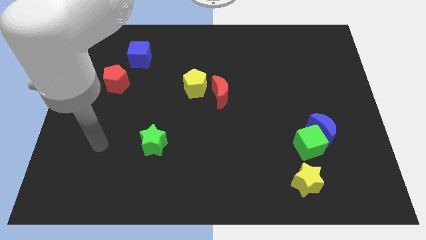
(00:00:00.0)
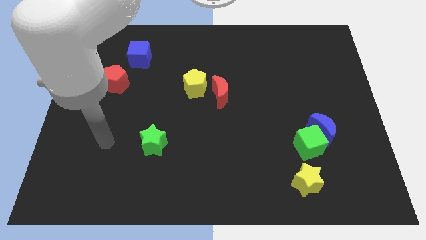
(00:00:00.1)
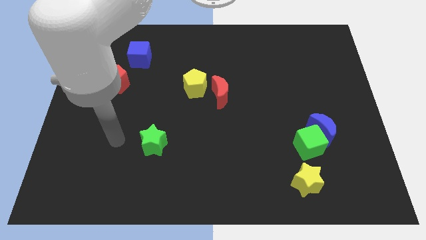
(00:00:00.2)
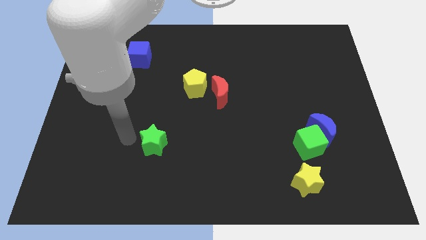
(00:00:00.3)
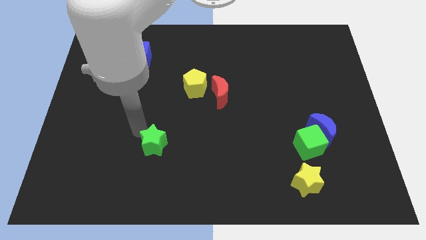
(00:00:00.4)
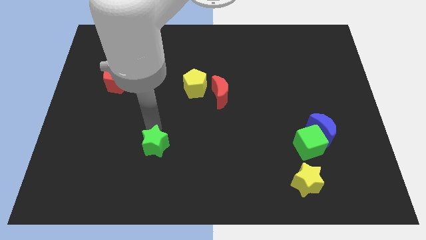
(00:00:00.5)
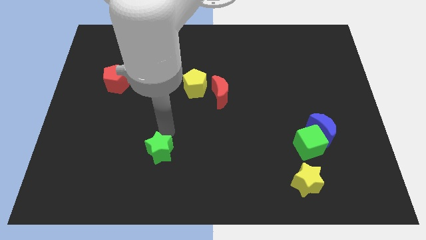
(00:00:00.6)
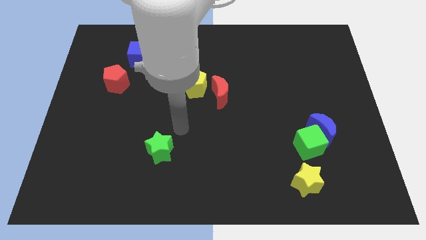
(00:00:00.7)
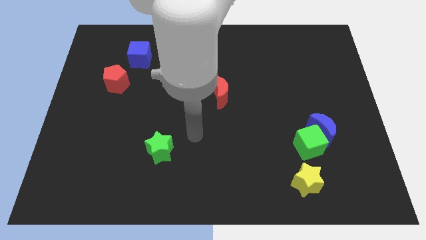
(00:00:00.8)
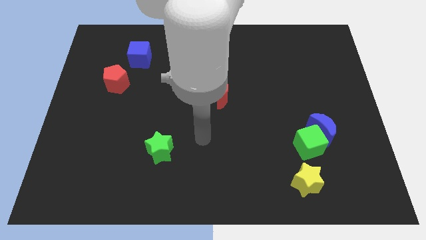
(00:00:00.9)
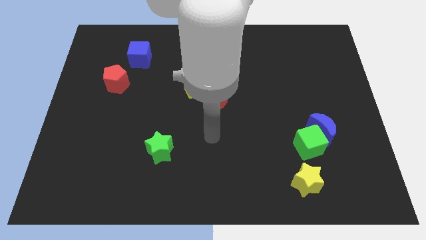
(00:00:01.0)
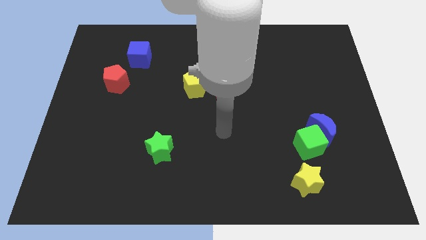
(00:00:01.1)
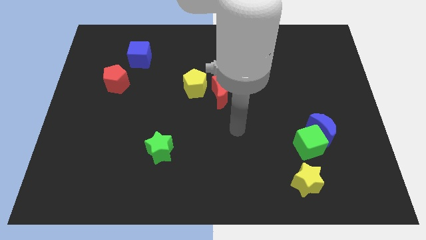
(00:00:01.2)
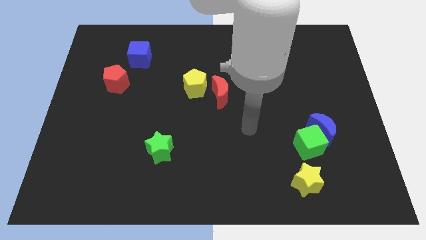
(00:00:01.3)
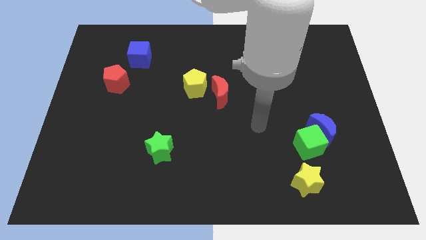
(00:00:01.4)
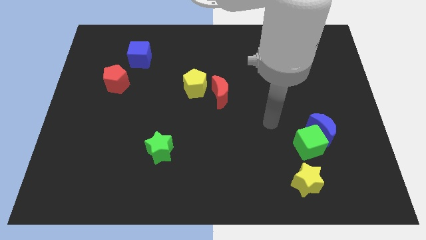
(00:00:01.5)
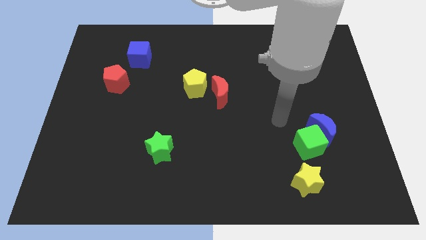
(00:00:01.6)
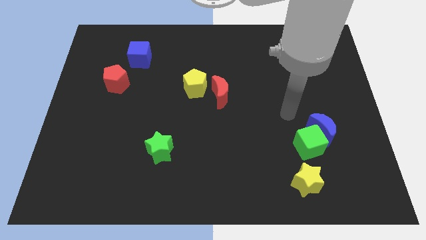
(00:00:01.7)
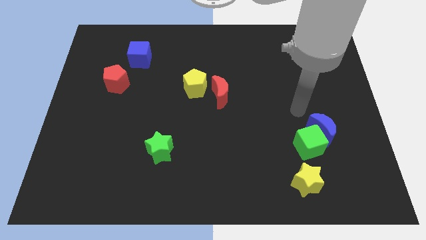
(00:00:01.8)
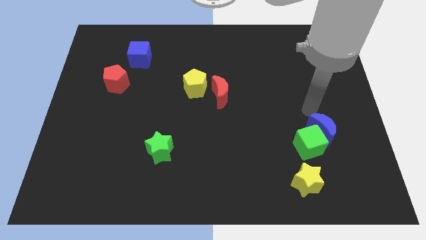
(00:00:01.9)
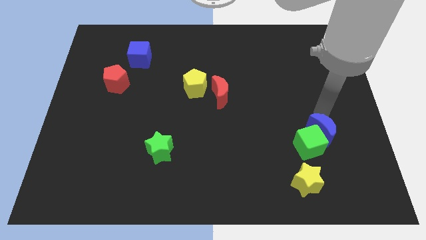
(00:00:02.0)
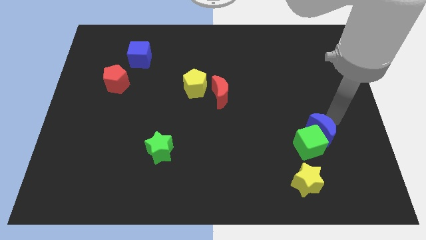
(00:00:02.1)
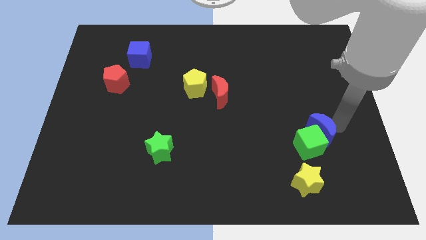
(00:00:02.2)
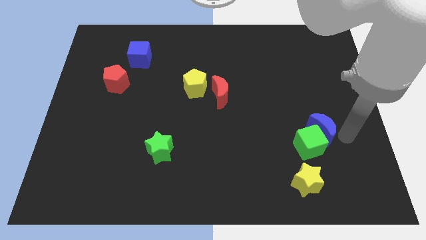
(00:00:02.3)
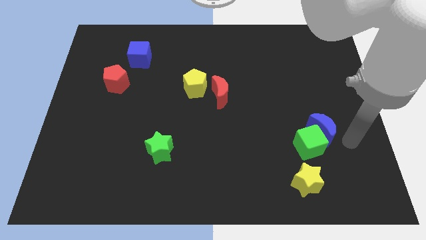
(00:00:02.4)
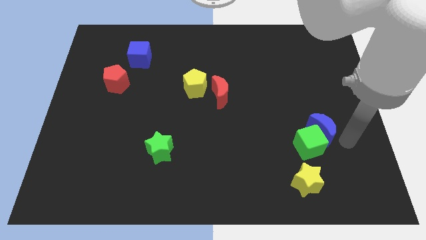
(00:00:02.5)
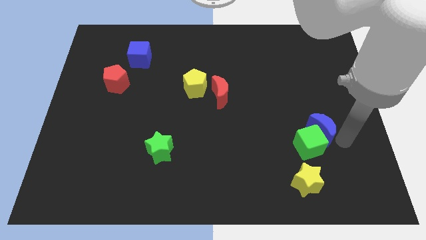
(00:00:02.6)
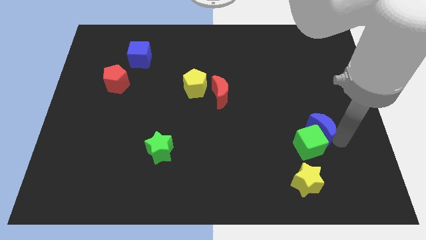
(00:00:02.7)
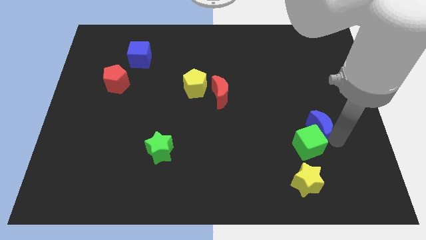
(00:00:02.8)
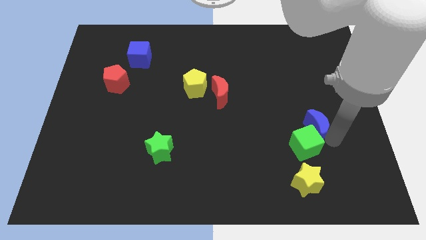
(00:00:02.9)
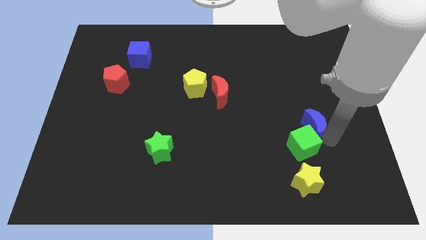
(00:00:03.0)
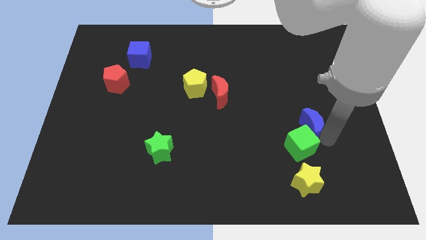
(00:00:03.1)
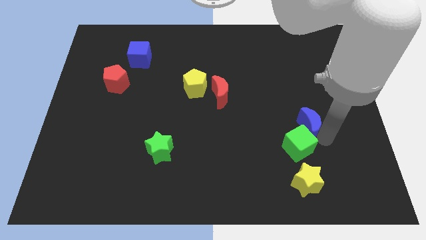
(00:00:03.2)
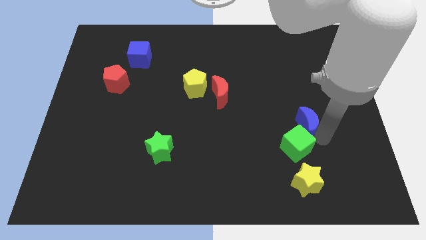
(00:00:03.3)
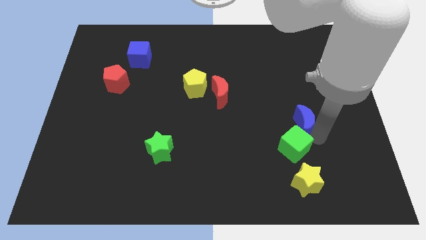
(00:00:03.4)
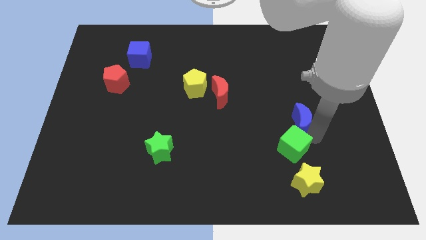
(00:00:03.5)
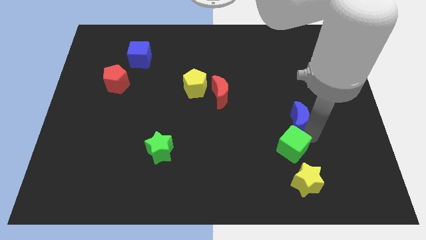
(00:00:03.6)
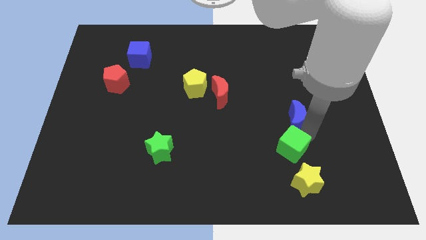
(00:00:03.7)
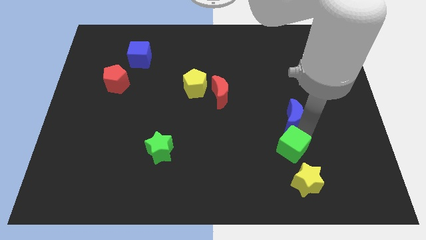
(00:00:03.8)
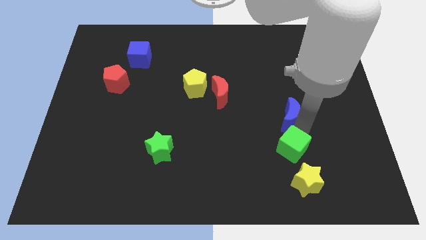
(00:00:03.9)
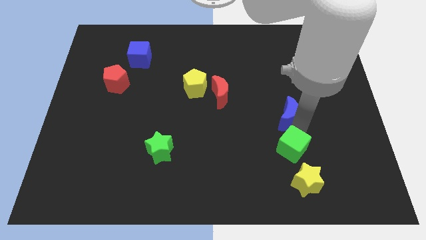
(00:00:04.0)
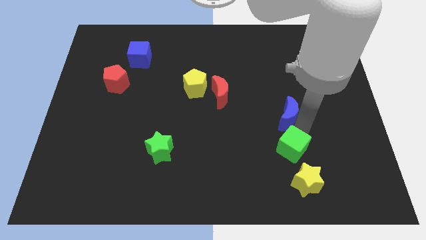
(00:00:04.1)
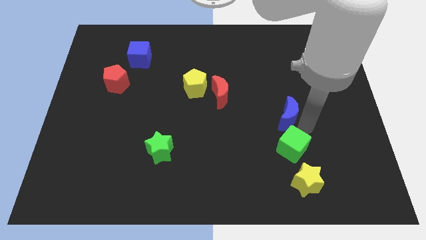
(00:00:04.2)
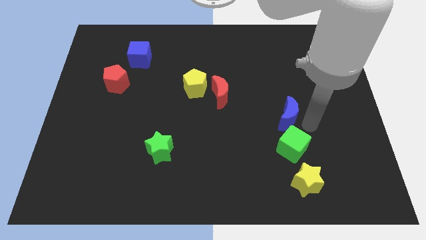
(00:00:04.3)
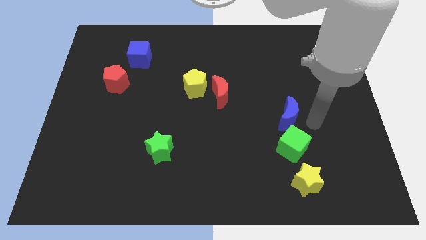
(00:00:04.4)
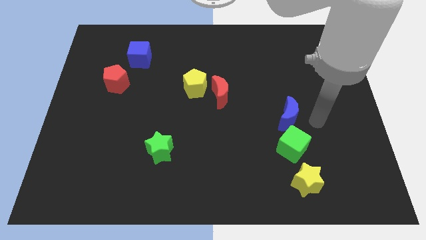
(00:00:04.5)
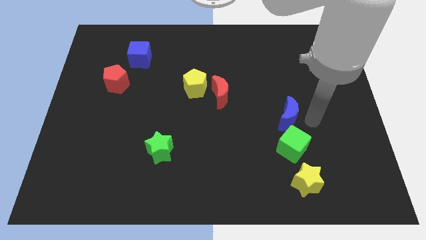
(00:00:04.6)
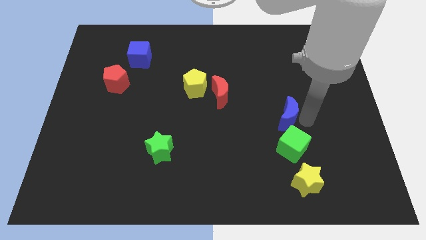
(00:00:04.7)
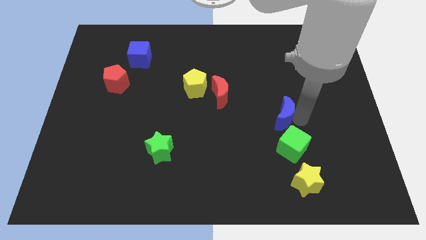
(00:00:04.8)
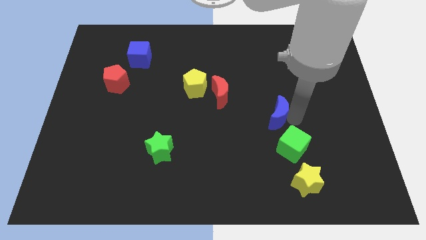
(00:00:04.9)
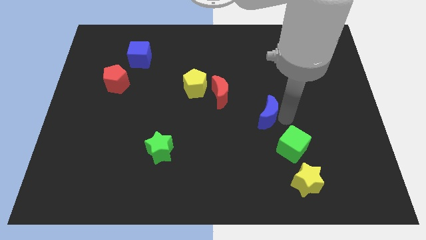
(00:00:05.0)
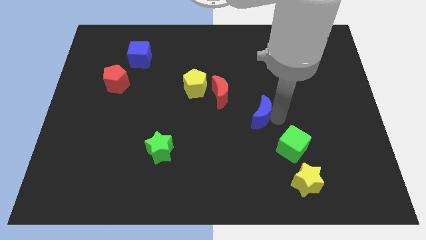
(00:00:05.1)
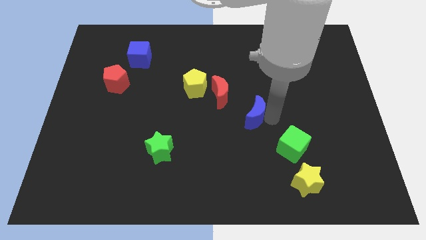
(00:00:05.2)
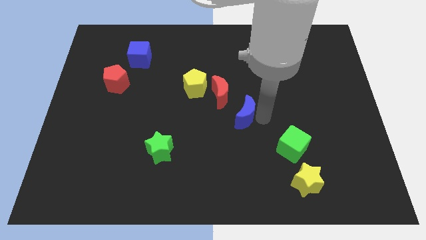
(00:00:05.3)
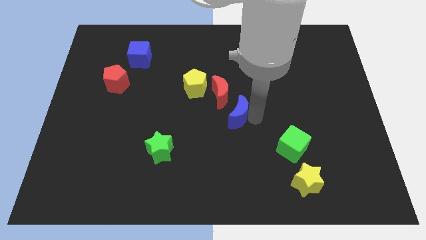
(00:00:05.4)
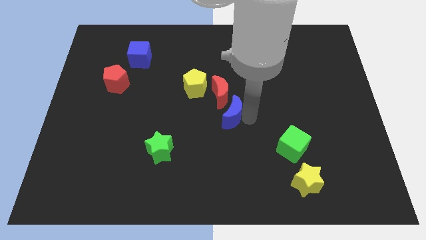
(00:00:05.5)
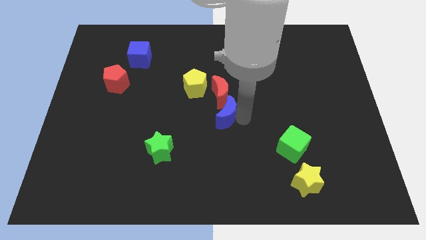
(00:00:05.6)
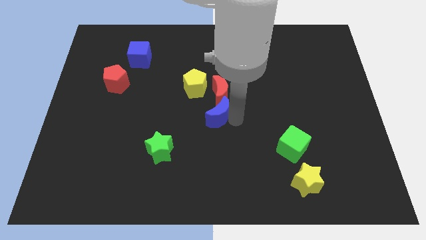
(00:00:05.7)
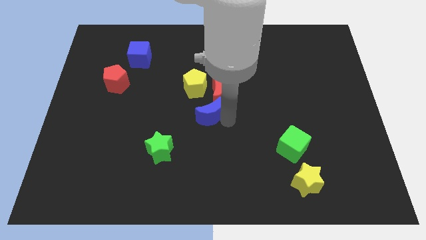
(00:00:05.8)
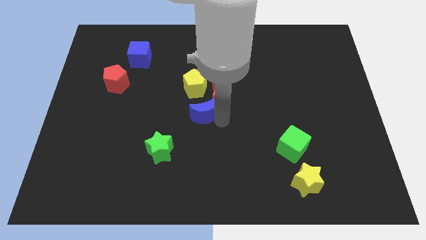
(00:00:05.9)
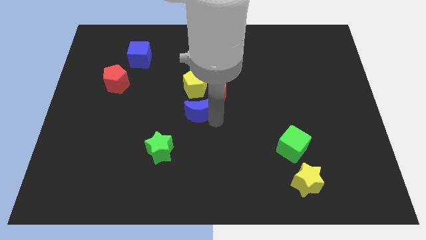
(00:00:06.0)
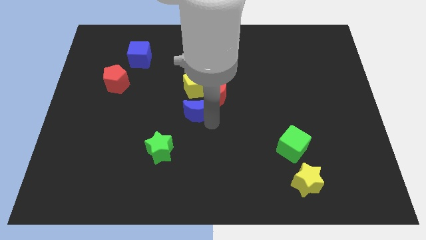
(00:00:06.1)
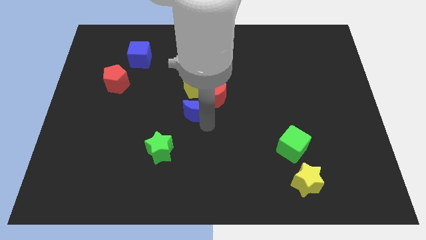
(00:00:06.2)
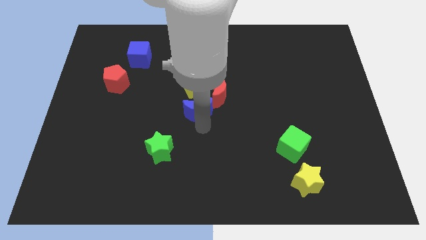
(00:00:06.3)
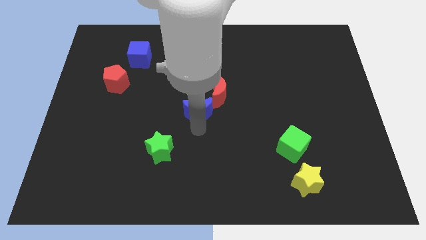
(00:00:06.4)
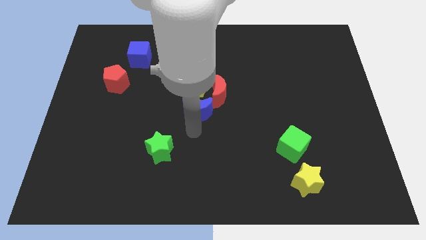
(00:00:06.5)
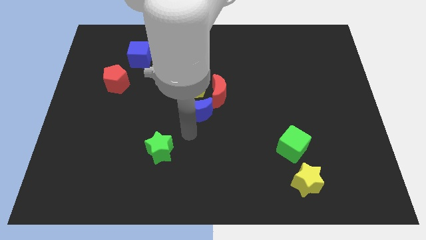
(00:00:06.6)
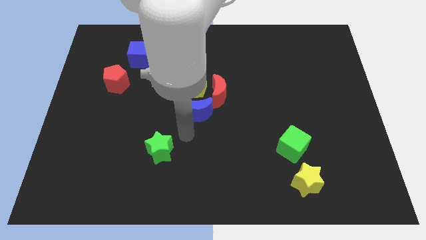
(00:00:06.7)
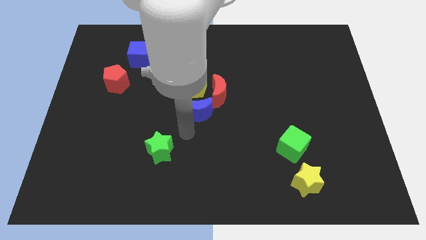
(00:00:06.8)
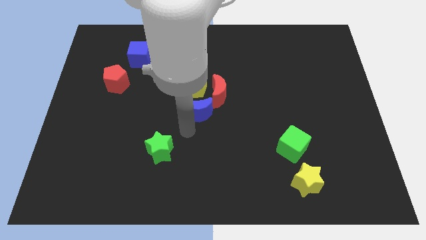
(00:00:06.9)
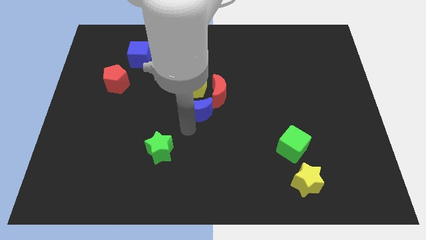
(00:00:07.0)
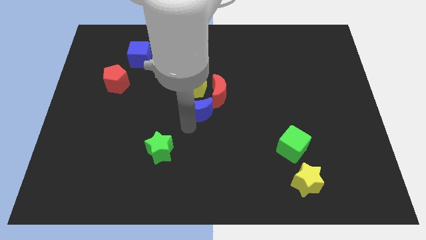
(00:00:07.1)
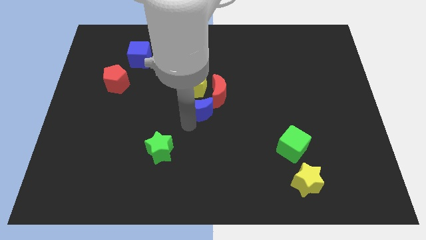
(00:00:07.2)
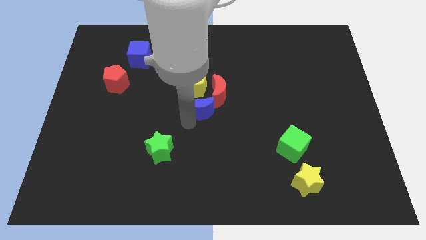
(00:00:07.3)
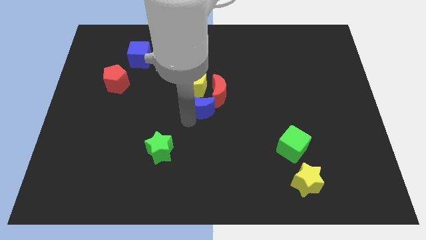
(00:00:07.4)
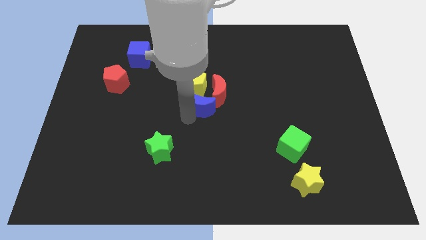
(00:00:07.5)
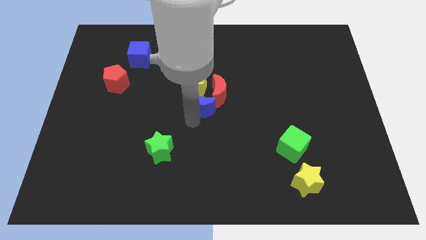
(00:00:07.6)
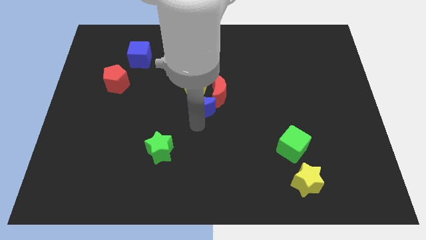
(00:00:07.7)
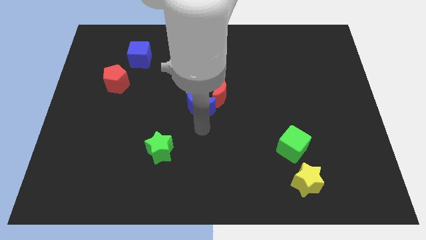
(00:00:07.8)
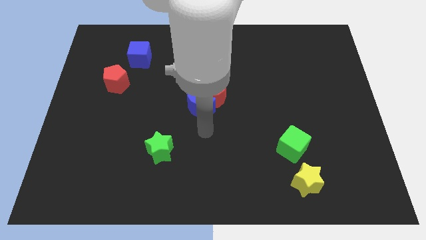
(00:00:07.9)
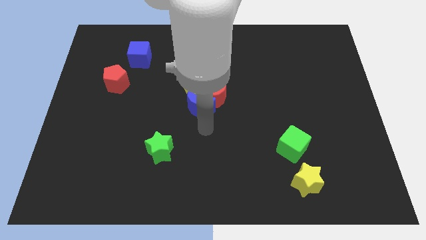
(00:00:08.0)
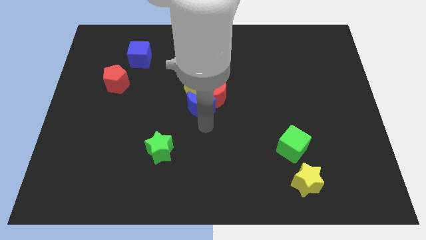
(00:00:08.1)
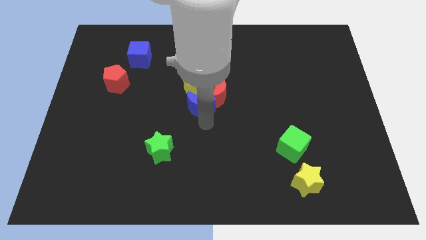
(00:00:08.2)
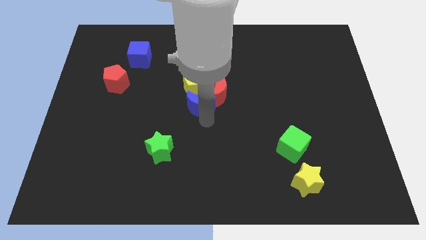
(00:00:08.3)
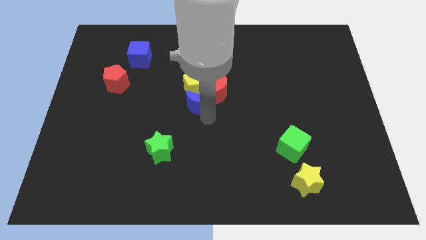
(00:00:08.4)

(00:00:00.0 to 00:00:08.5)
move the blue moon to the yellow pentagon
